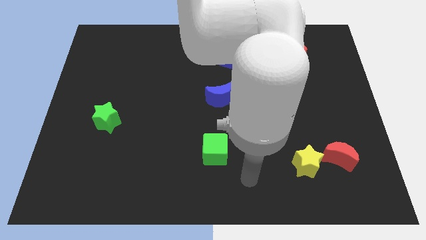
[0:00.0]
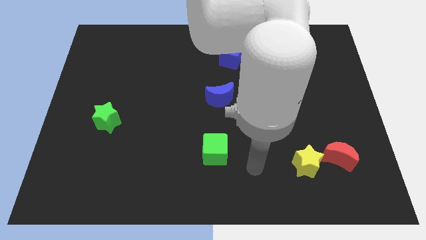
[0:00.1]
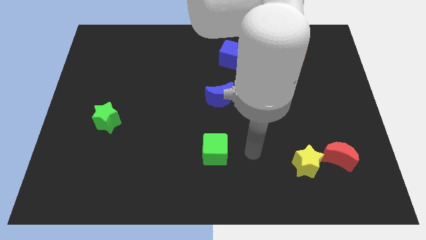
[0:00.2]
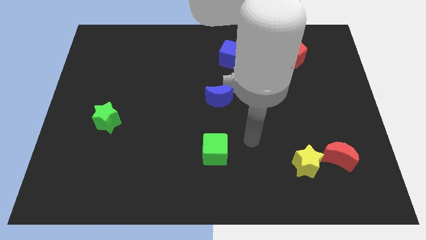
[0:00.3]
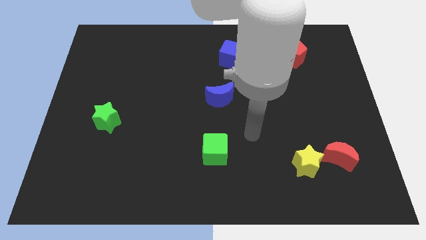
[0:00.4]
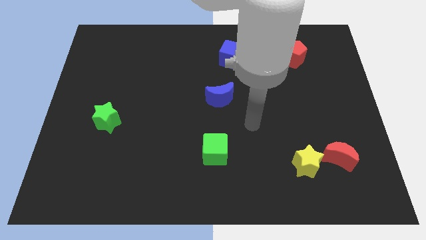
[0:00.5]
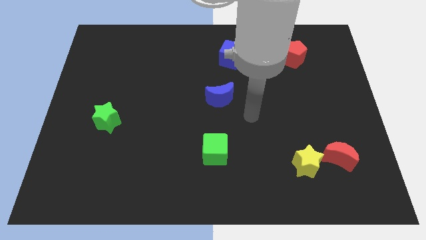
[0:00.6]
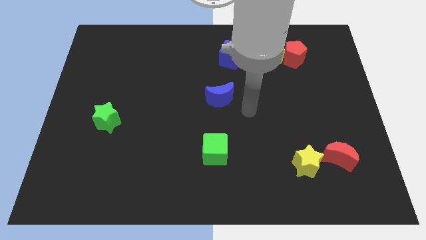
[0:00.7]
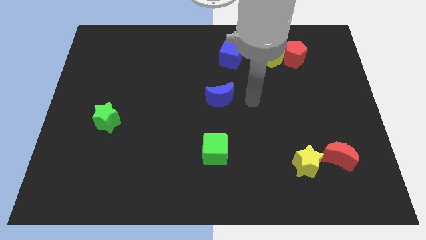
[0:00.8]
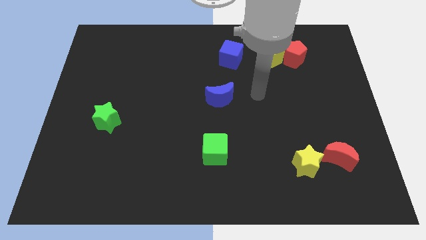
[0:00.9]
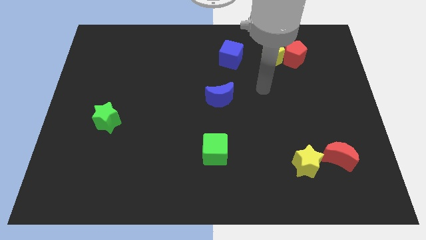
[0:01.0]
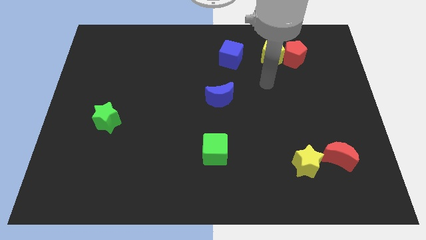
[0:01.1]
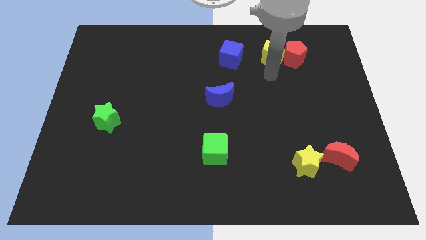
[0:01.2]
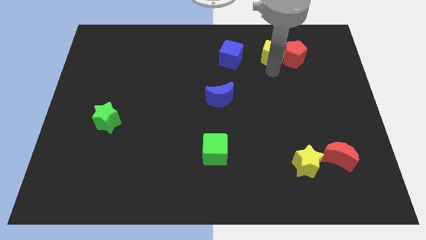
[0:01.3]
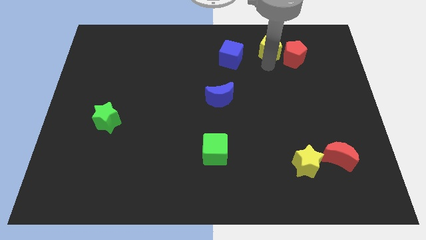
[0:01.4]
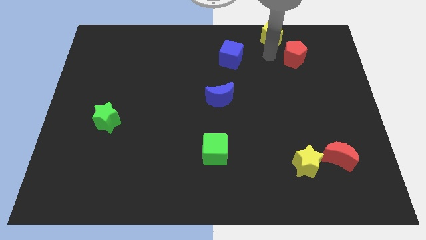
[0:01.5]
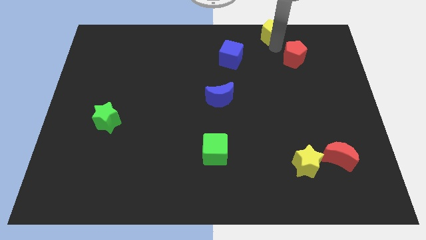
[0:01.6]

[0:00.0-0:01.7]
pull the red pentagon apart from the yellow pentagon

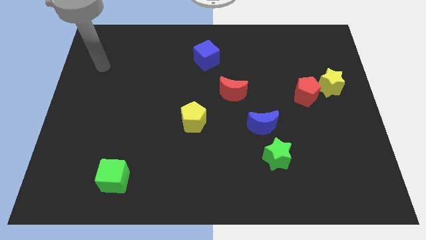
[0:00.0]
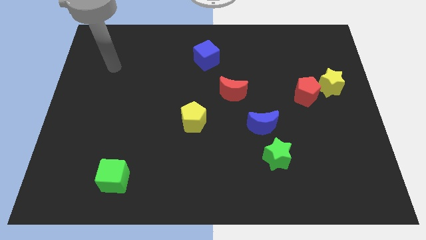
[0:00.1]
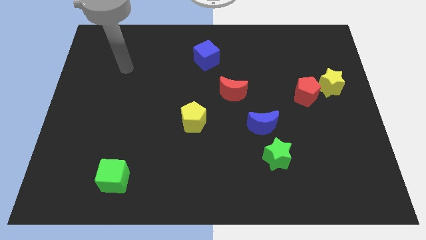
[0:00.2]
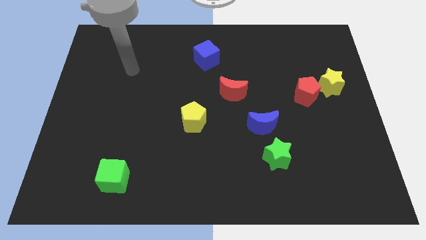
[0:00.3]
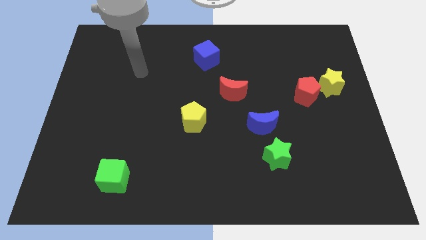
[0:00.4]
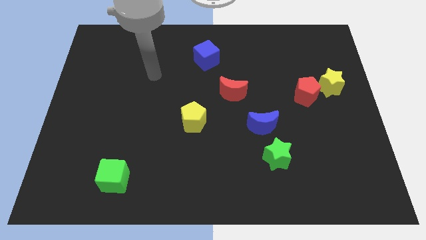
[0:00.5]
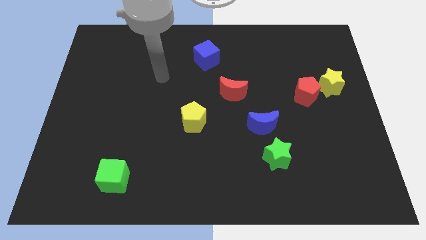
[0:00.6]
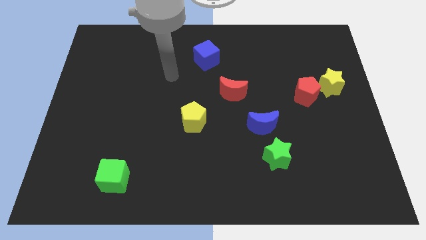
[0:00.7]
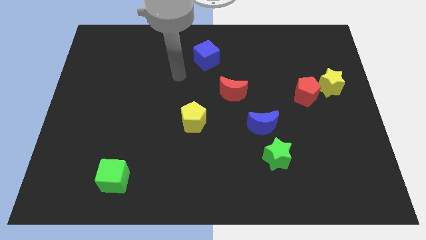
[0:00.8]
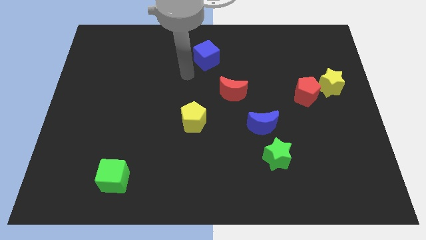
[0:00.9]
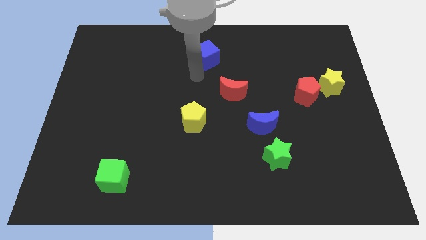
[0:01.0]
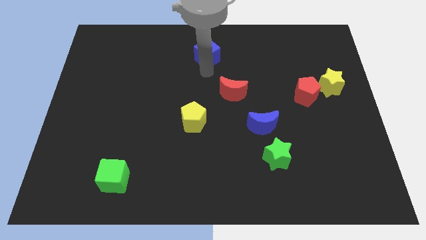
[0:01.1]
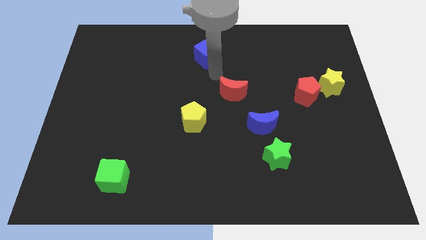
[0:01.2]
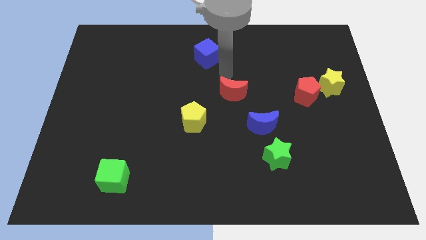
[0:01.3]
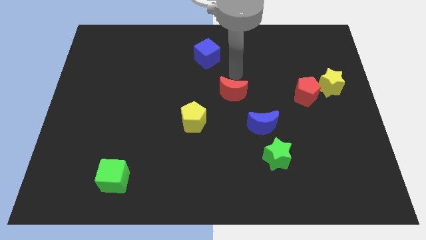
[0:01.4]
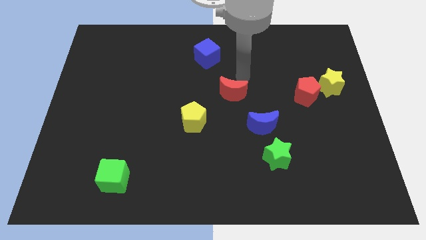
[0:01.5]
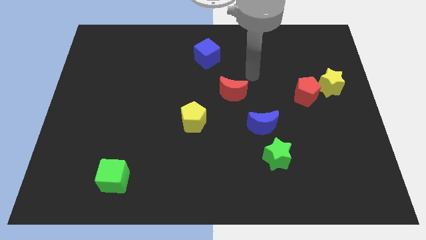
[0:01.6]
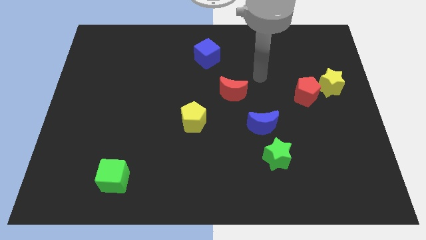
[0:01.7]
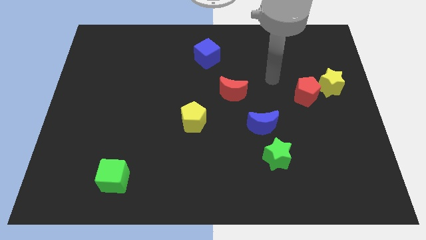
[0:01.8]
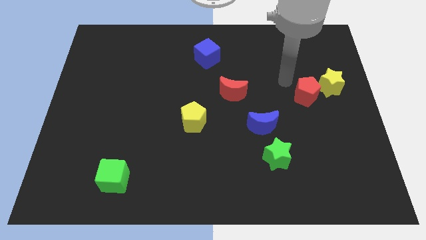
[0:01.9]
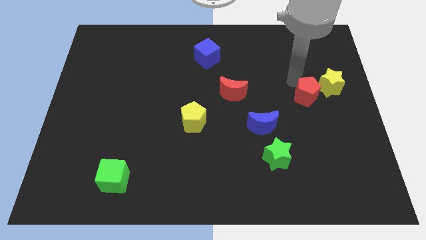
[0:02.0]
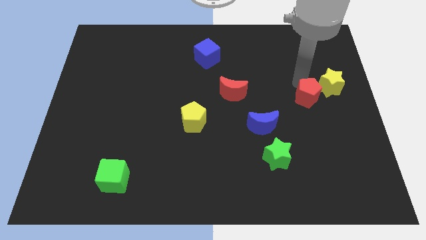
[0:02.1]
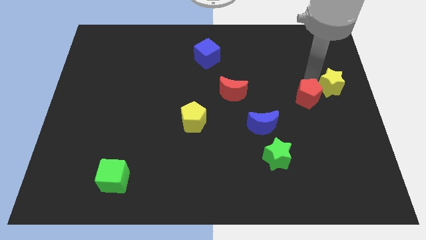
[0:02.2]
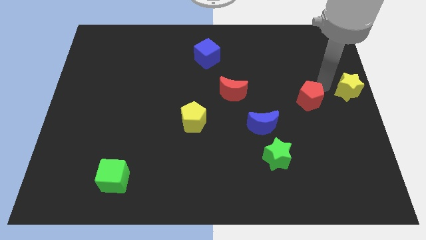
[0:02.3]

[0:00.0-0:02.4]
move the red pentagon away from the yellow star

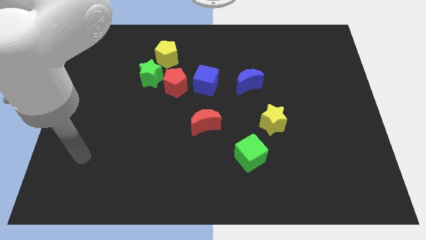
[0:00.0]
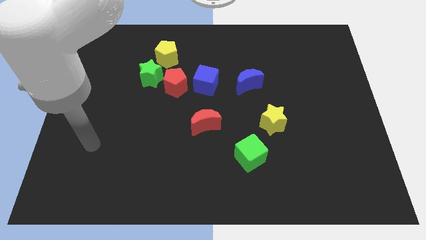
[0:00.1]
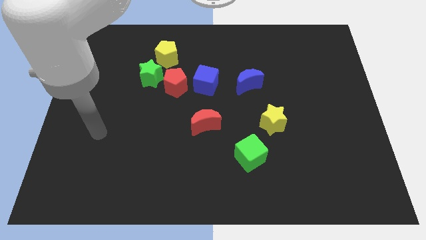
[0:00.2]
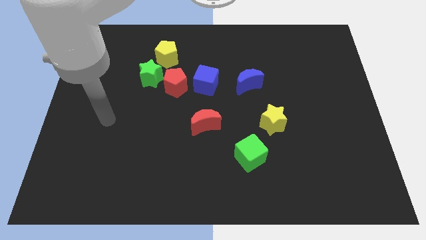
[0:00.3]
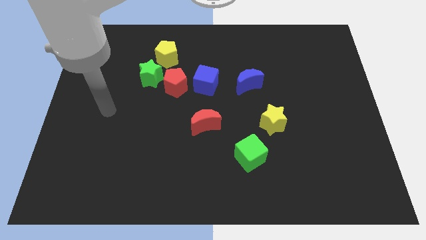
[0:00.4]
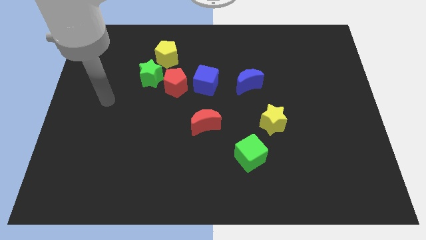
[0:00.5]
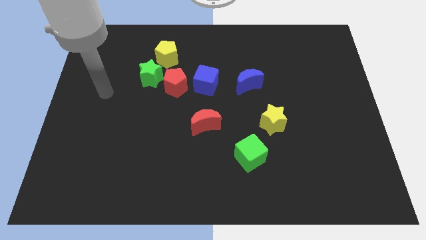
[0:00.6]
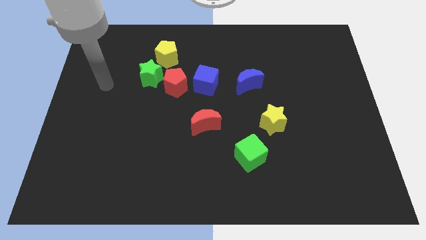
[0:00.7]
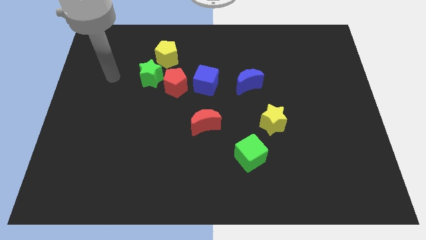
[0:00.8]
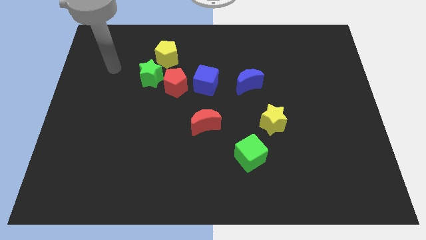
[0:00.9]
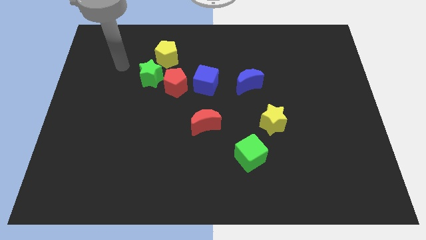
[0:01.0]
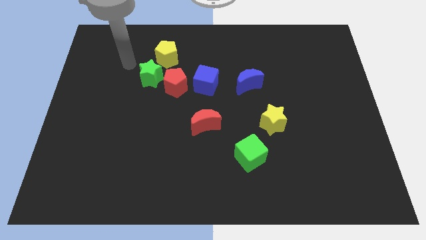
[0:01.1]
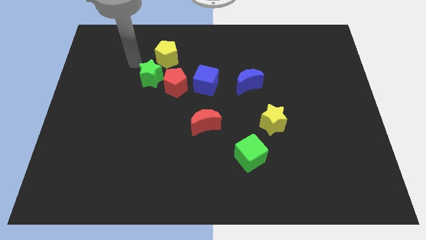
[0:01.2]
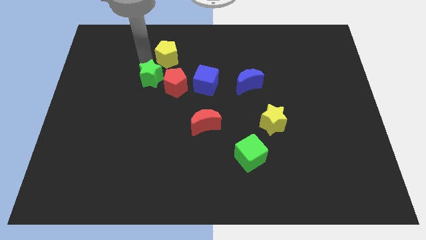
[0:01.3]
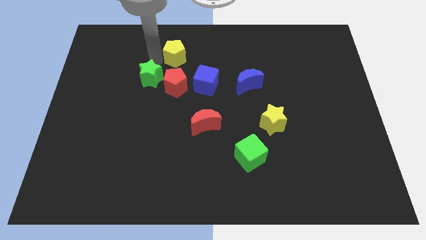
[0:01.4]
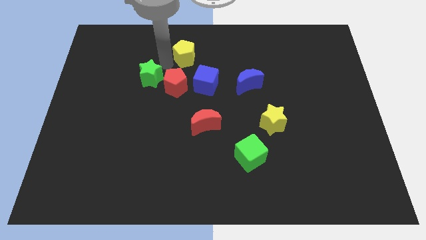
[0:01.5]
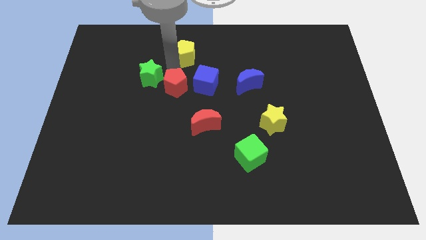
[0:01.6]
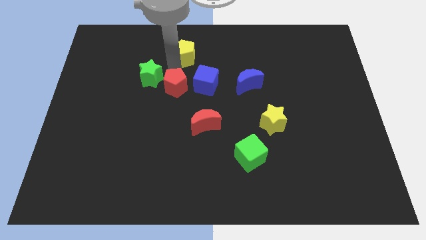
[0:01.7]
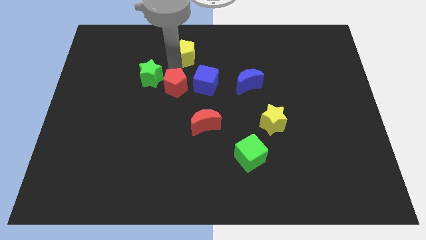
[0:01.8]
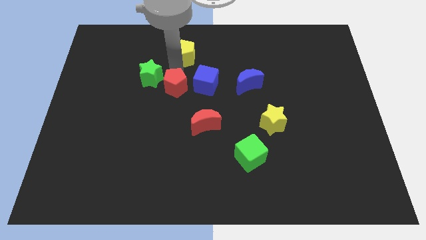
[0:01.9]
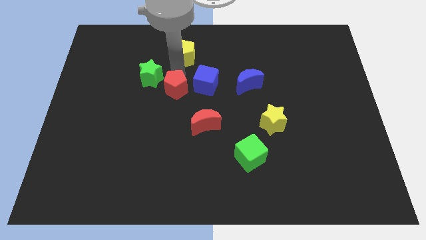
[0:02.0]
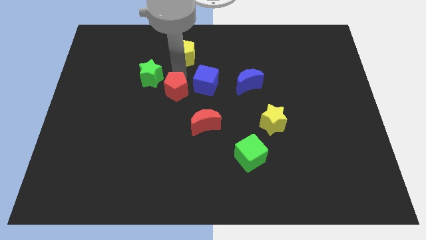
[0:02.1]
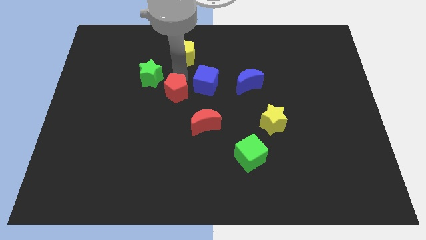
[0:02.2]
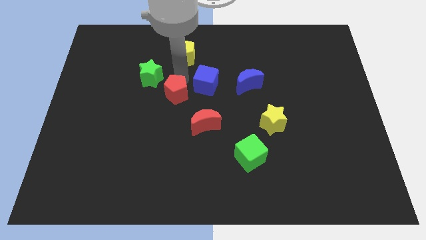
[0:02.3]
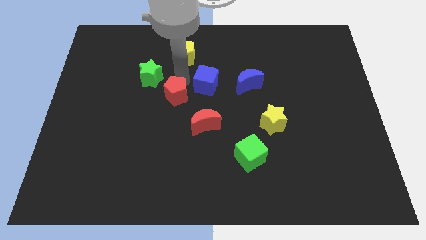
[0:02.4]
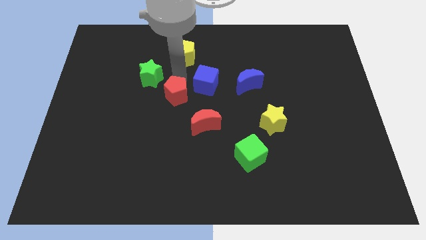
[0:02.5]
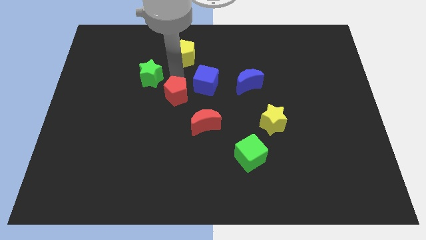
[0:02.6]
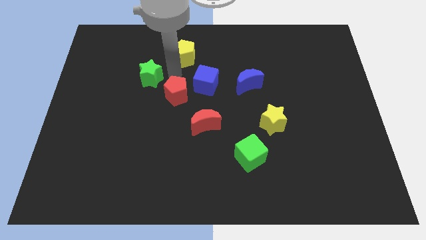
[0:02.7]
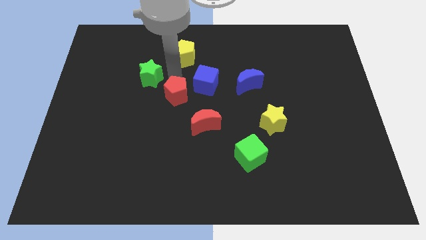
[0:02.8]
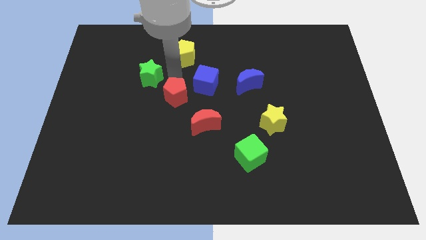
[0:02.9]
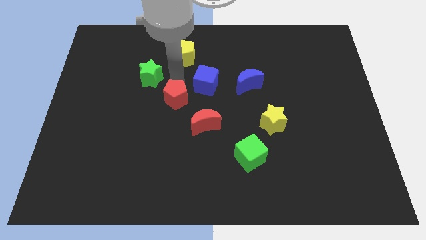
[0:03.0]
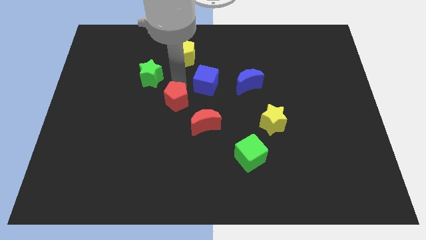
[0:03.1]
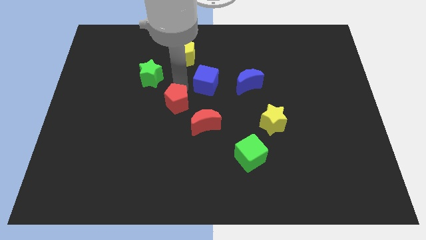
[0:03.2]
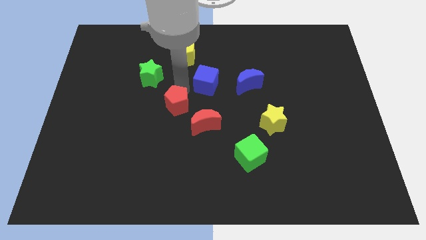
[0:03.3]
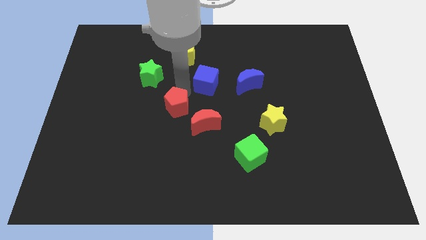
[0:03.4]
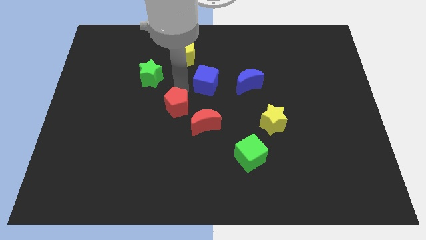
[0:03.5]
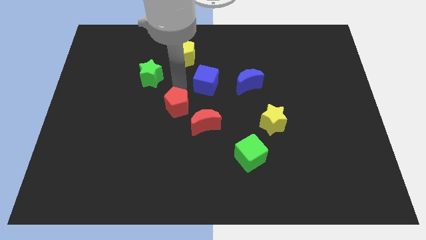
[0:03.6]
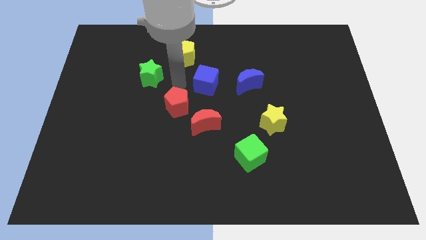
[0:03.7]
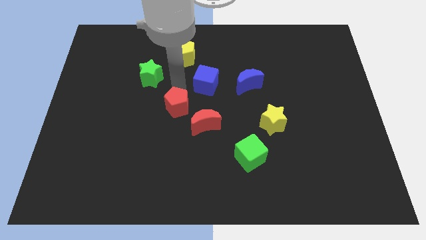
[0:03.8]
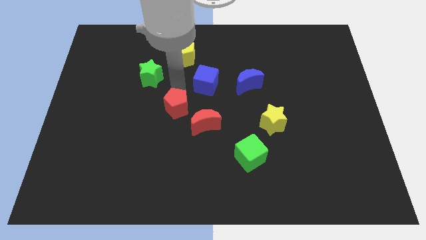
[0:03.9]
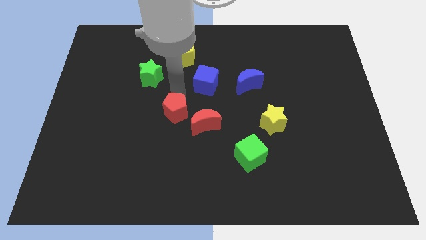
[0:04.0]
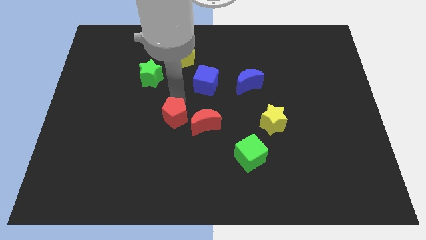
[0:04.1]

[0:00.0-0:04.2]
pull the red pentagon apart from the green star and blue cube

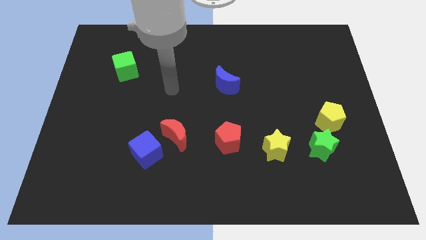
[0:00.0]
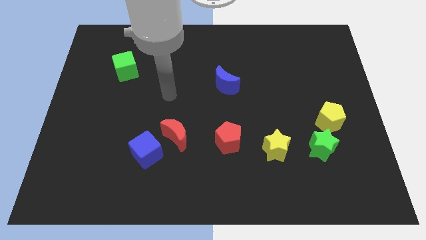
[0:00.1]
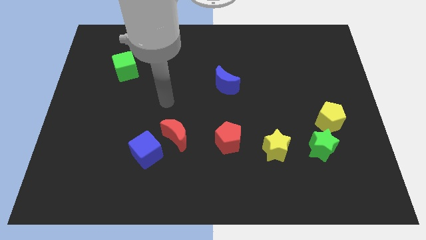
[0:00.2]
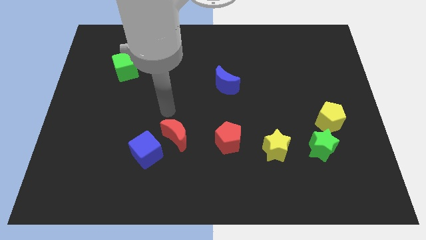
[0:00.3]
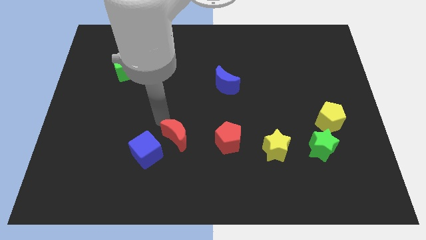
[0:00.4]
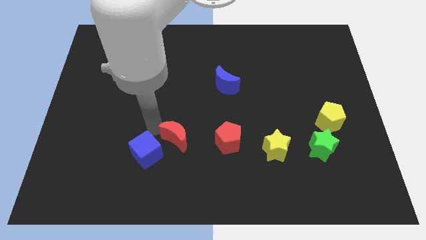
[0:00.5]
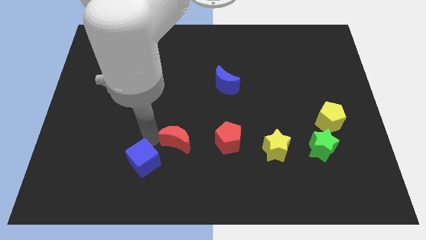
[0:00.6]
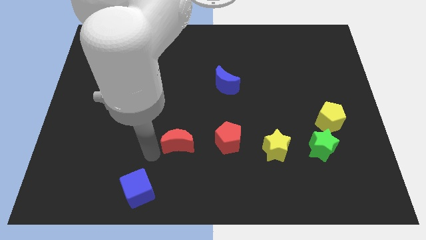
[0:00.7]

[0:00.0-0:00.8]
move the red moon away from the blue cube

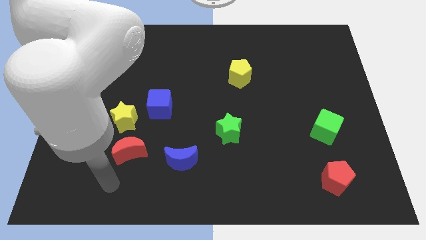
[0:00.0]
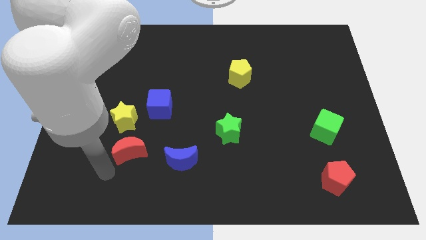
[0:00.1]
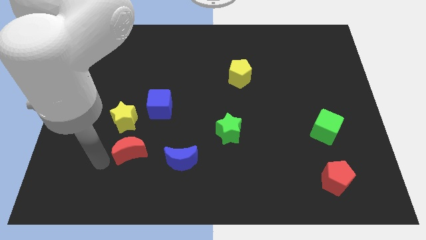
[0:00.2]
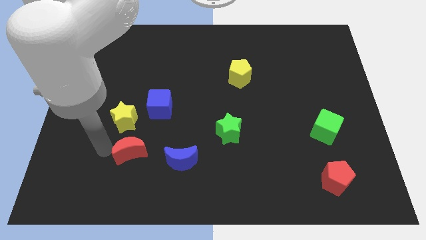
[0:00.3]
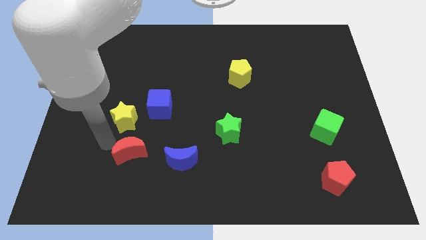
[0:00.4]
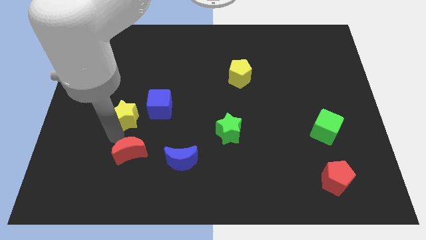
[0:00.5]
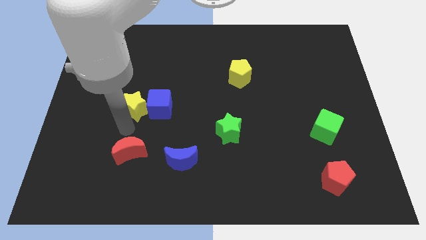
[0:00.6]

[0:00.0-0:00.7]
move the red moon away from the yellow star
